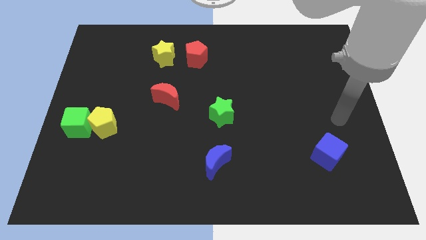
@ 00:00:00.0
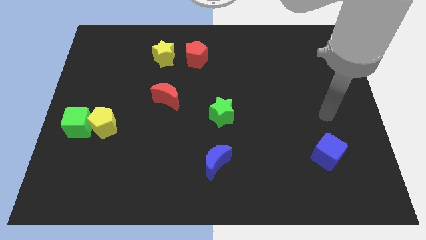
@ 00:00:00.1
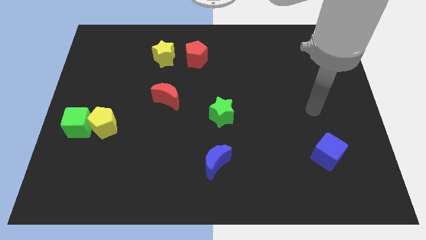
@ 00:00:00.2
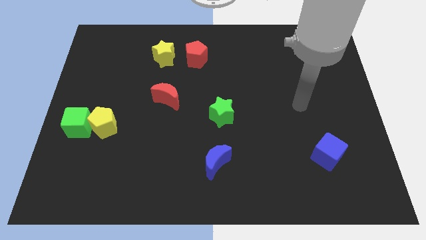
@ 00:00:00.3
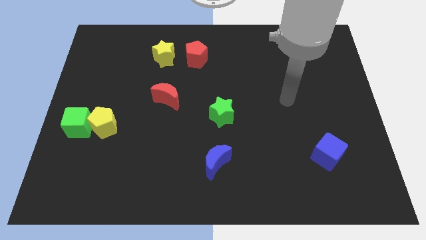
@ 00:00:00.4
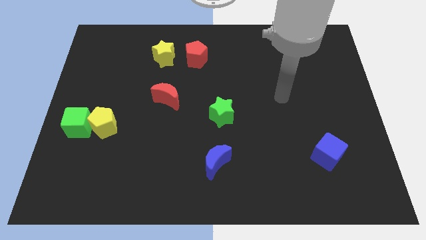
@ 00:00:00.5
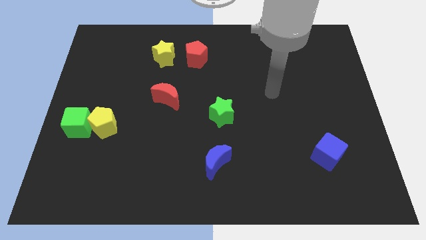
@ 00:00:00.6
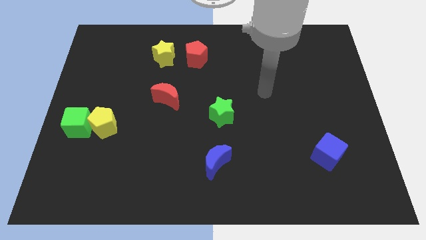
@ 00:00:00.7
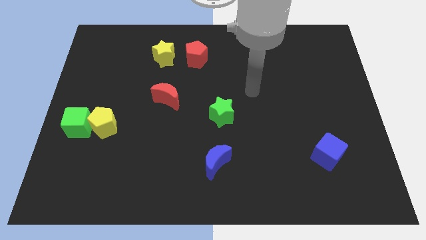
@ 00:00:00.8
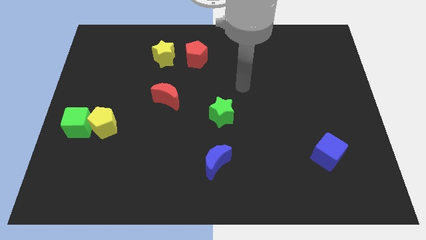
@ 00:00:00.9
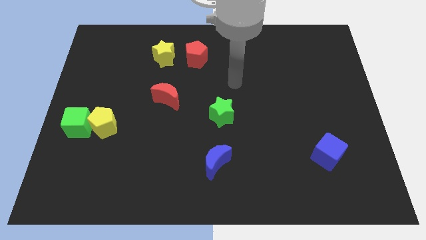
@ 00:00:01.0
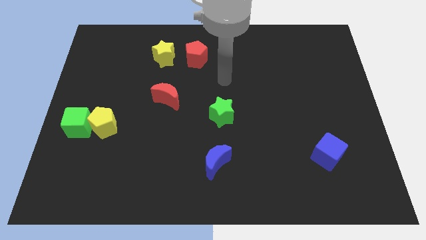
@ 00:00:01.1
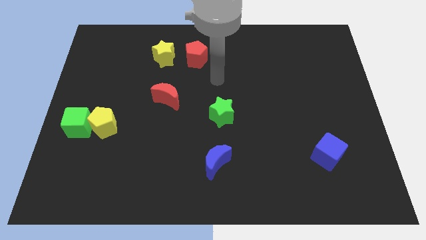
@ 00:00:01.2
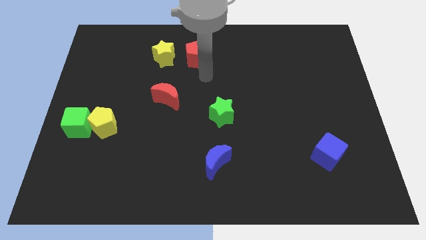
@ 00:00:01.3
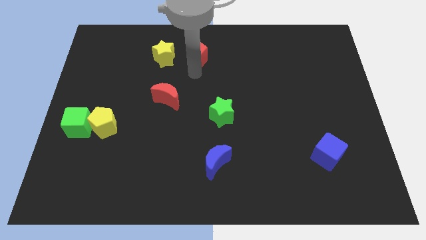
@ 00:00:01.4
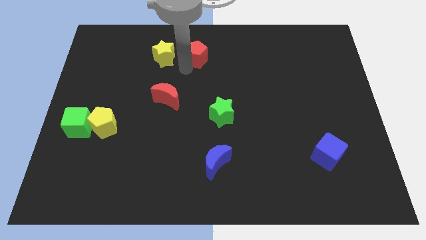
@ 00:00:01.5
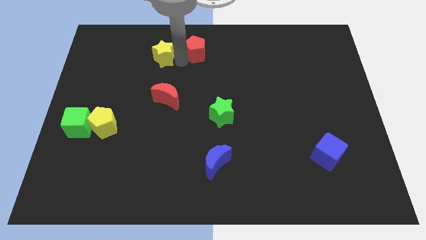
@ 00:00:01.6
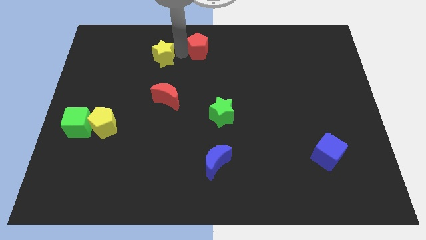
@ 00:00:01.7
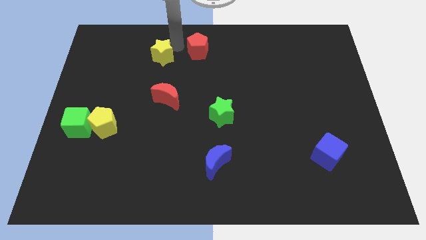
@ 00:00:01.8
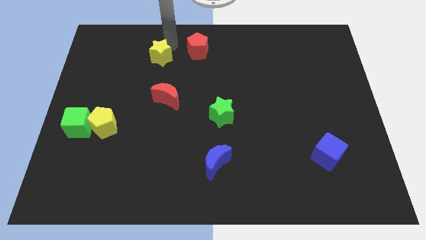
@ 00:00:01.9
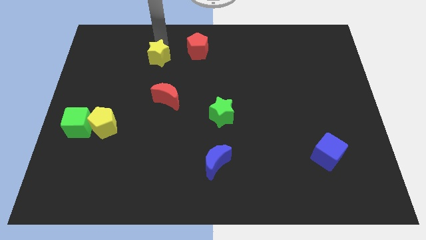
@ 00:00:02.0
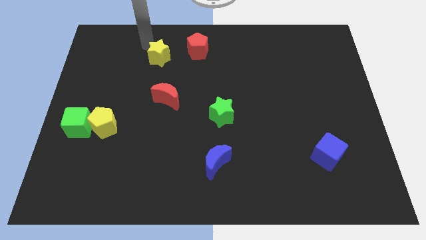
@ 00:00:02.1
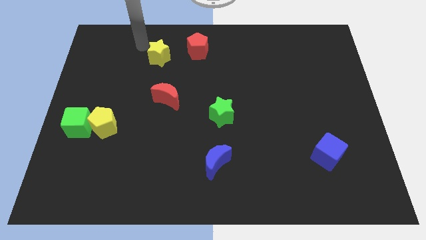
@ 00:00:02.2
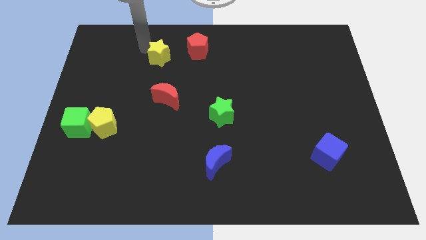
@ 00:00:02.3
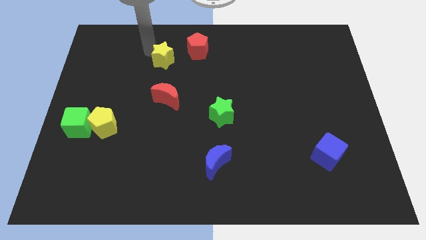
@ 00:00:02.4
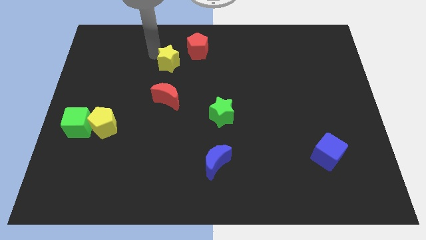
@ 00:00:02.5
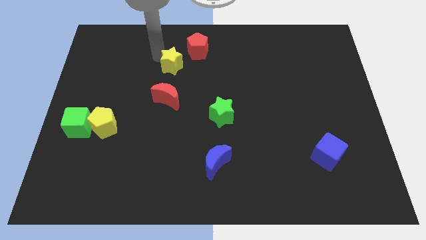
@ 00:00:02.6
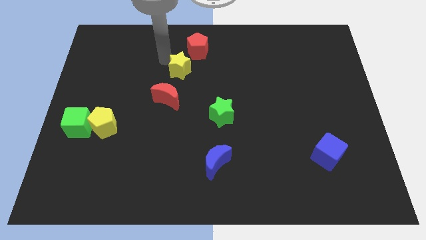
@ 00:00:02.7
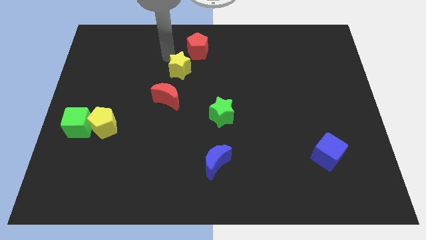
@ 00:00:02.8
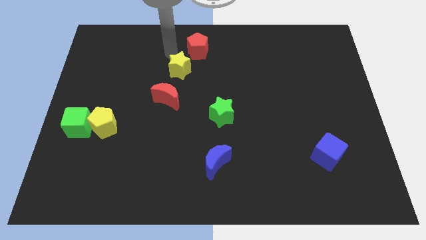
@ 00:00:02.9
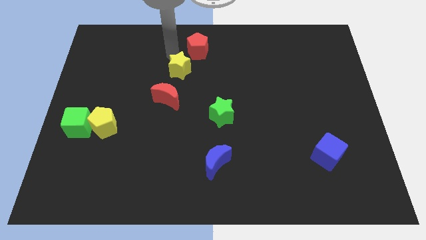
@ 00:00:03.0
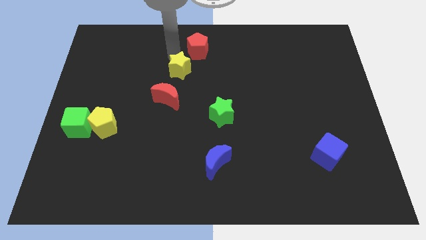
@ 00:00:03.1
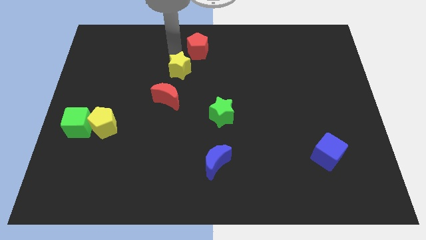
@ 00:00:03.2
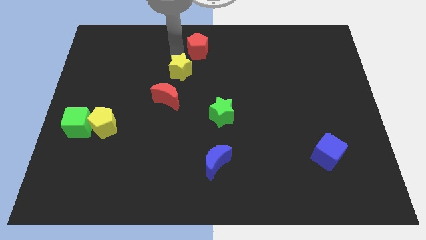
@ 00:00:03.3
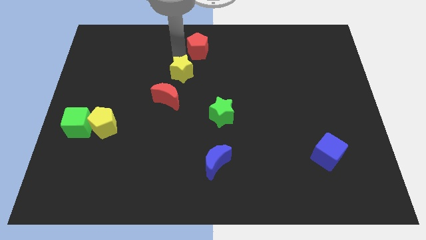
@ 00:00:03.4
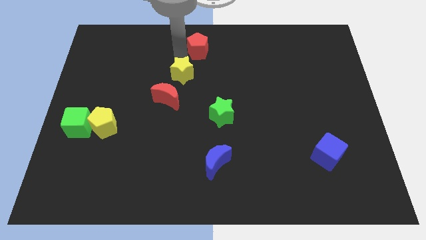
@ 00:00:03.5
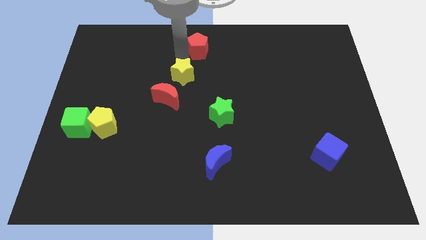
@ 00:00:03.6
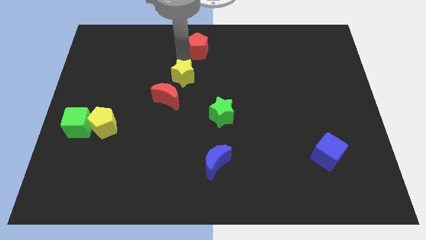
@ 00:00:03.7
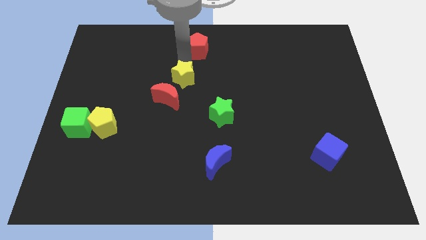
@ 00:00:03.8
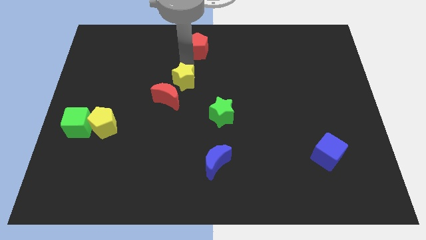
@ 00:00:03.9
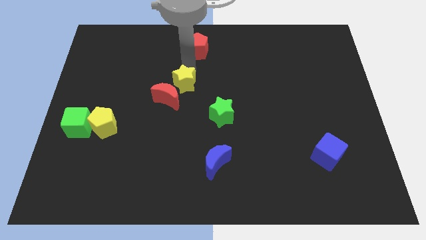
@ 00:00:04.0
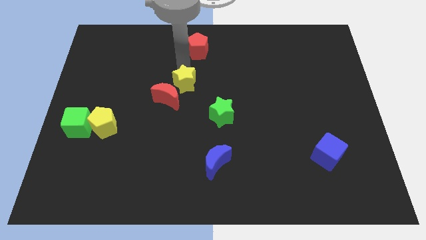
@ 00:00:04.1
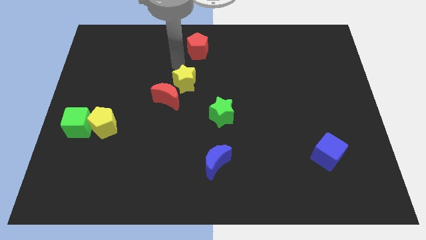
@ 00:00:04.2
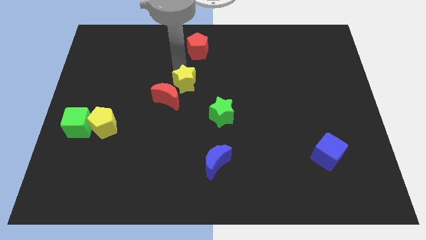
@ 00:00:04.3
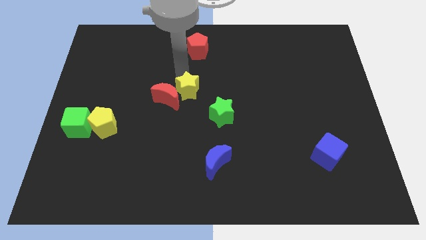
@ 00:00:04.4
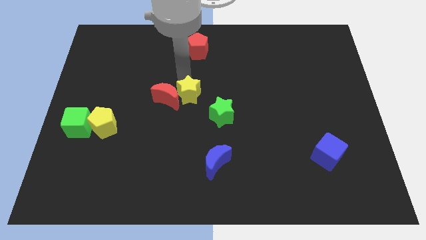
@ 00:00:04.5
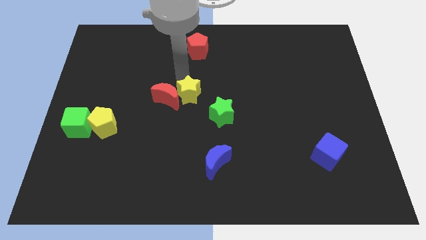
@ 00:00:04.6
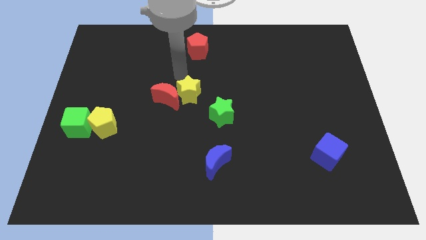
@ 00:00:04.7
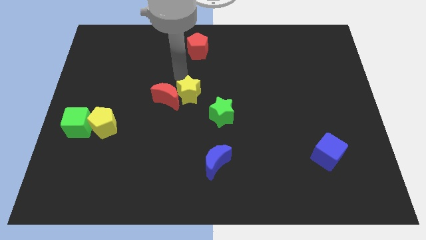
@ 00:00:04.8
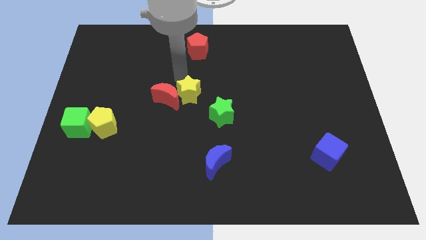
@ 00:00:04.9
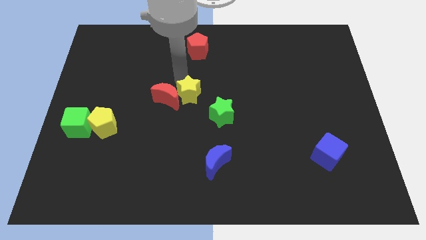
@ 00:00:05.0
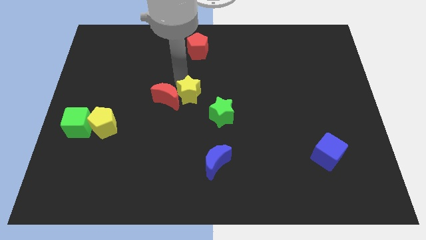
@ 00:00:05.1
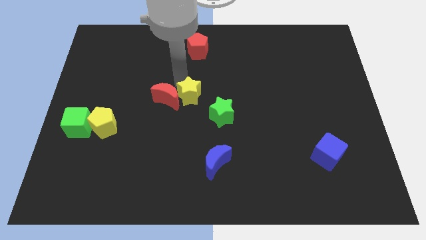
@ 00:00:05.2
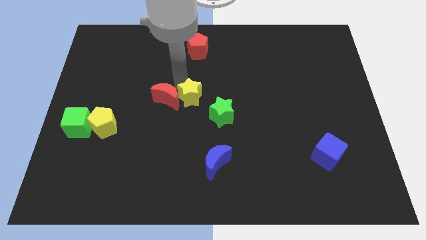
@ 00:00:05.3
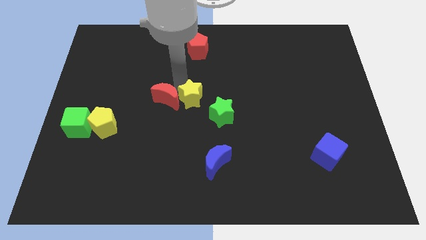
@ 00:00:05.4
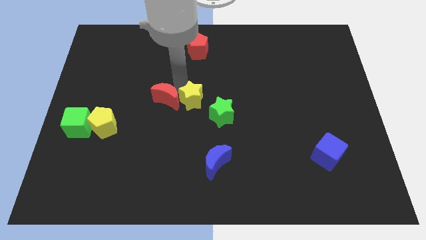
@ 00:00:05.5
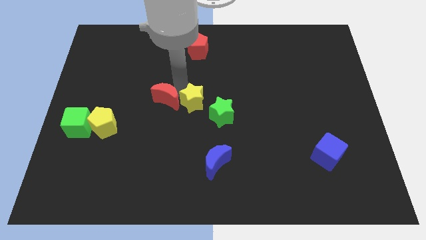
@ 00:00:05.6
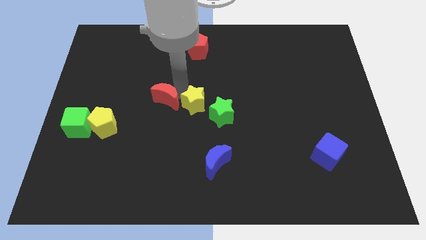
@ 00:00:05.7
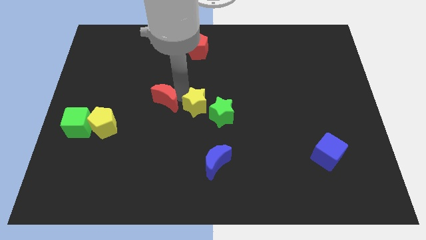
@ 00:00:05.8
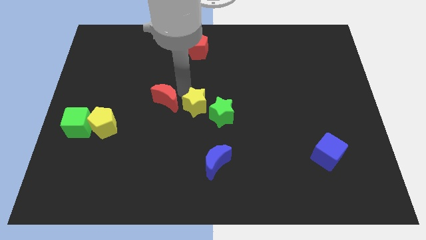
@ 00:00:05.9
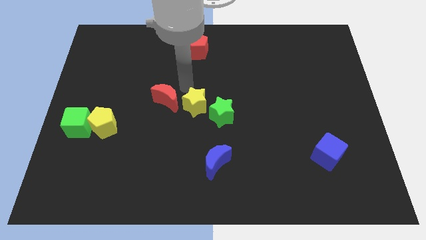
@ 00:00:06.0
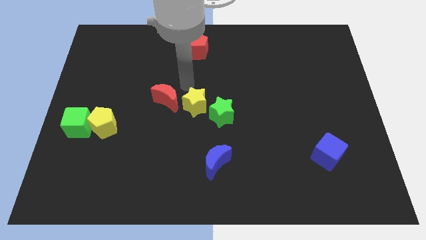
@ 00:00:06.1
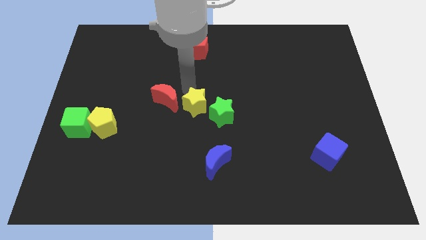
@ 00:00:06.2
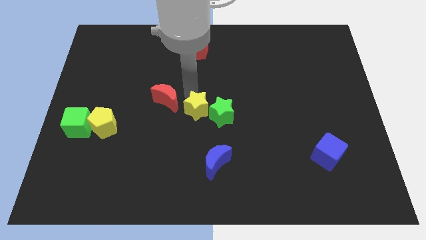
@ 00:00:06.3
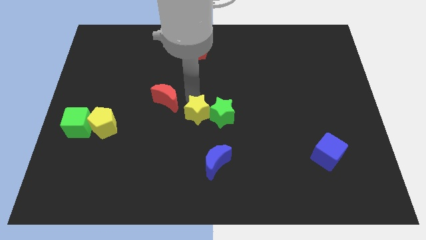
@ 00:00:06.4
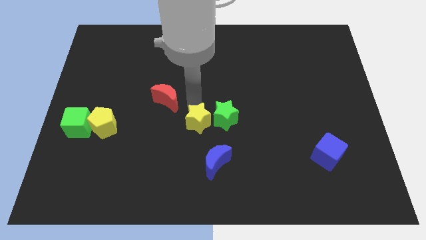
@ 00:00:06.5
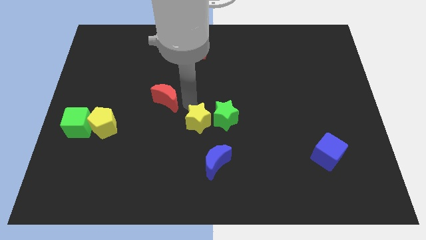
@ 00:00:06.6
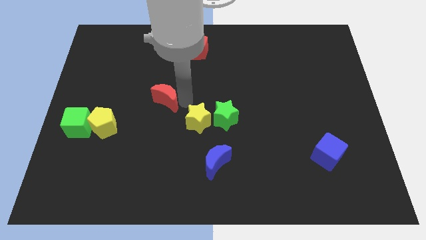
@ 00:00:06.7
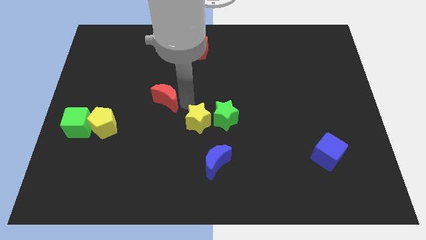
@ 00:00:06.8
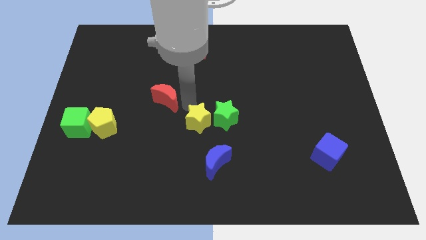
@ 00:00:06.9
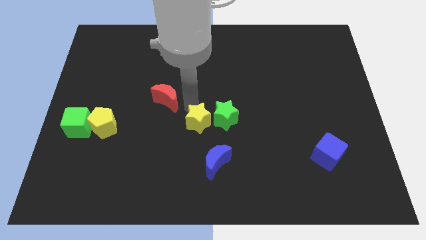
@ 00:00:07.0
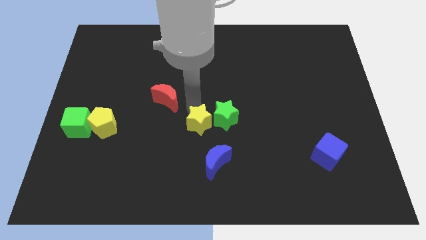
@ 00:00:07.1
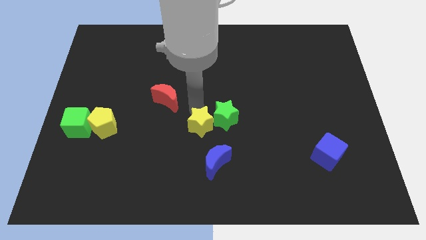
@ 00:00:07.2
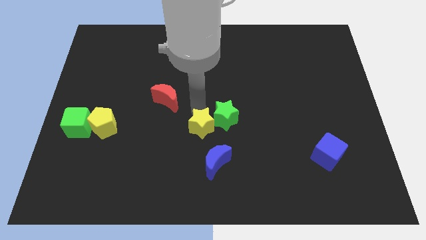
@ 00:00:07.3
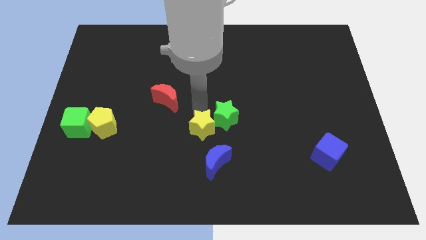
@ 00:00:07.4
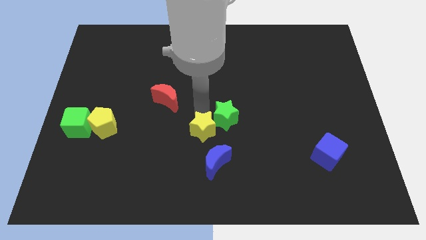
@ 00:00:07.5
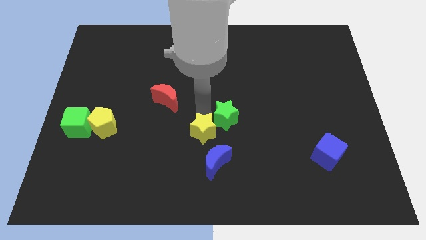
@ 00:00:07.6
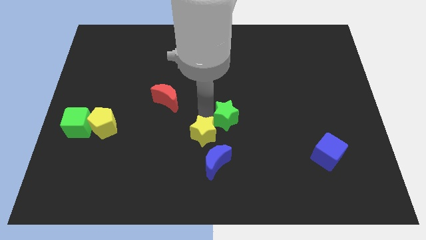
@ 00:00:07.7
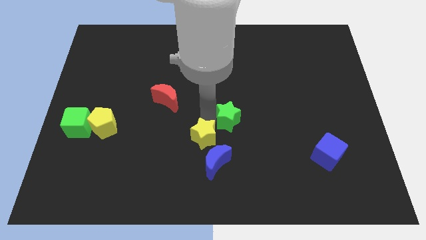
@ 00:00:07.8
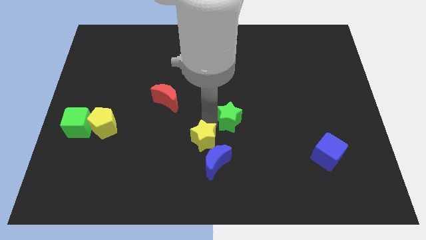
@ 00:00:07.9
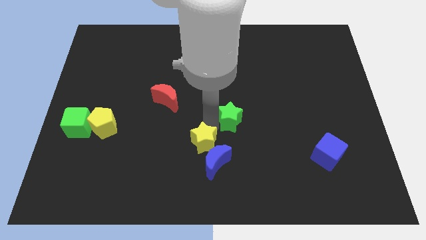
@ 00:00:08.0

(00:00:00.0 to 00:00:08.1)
move the yellow star towards the blue moon
